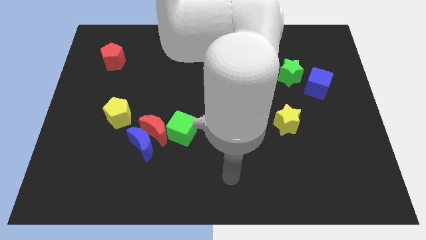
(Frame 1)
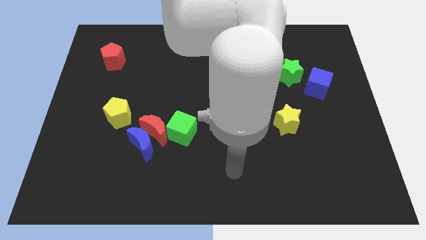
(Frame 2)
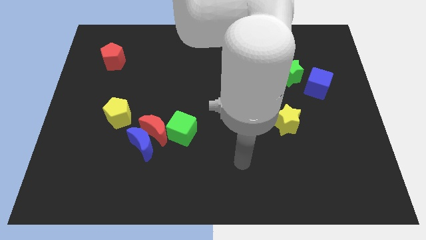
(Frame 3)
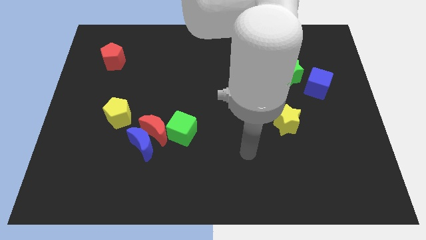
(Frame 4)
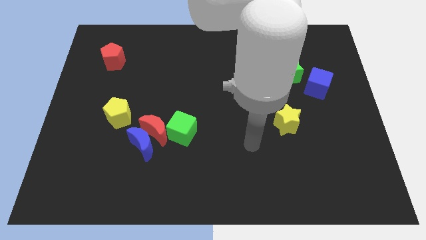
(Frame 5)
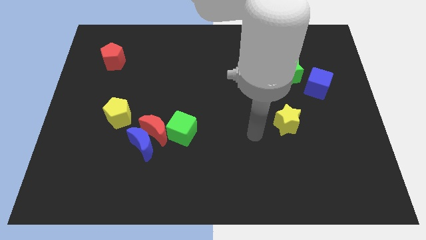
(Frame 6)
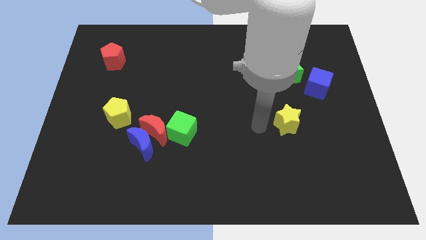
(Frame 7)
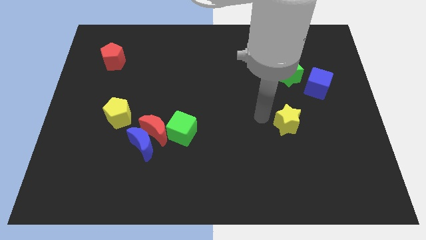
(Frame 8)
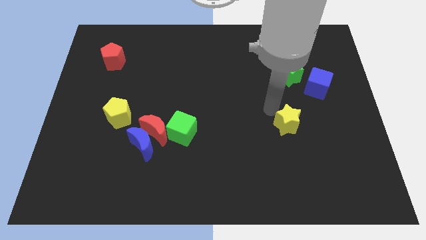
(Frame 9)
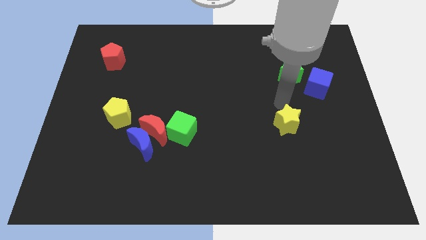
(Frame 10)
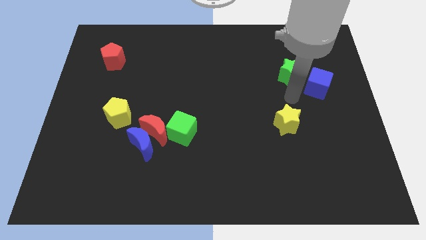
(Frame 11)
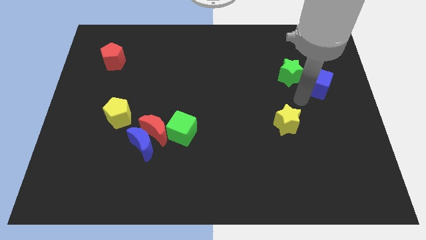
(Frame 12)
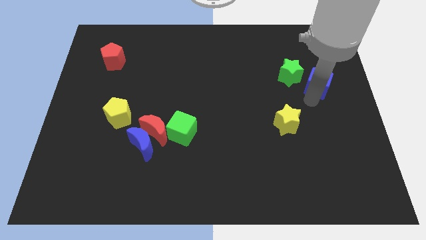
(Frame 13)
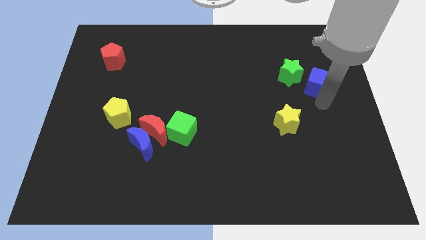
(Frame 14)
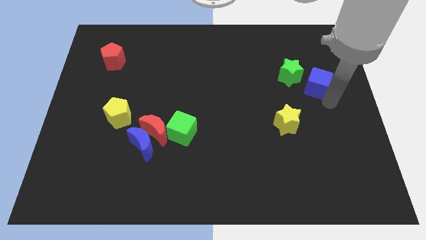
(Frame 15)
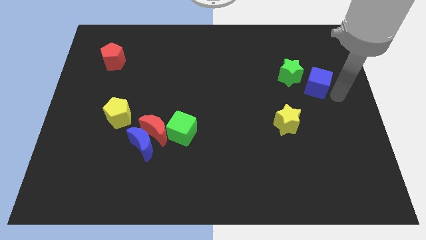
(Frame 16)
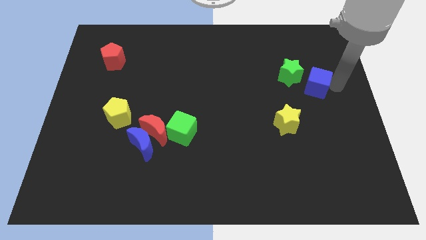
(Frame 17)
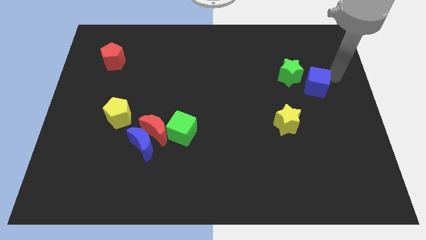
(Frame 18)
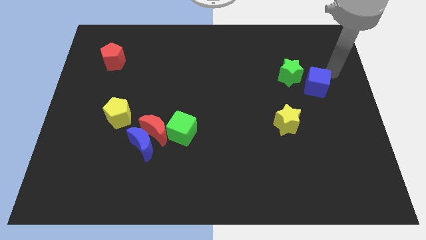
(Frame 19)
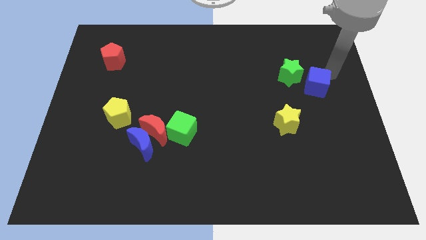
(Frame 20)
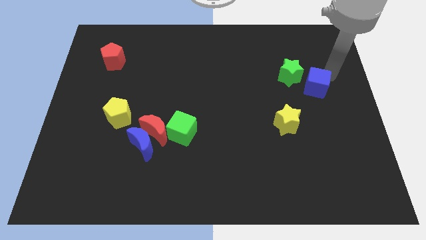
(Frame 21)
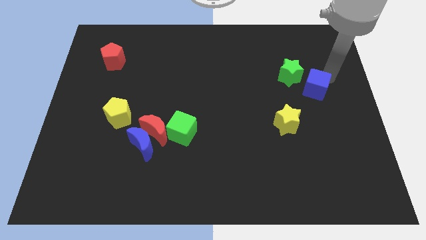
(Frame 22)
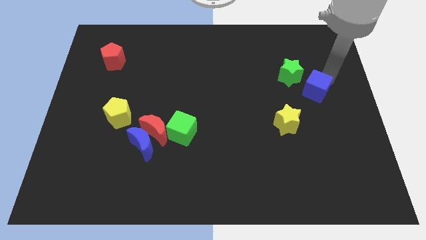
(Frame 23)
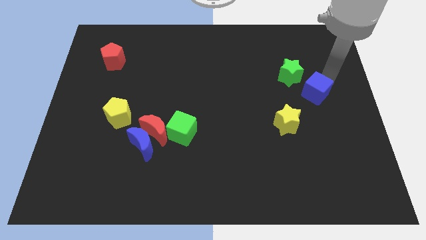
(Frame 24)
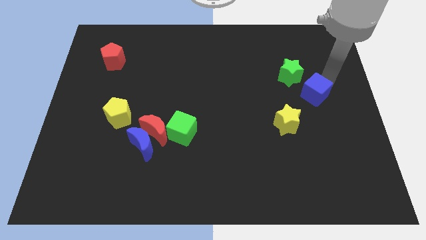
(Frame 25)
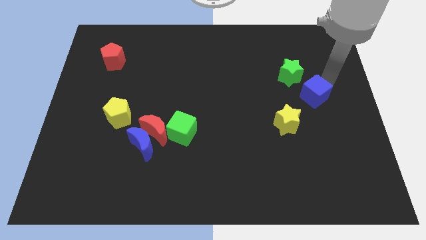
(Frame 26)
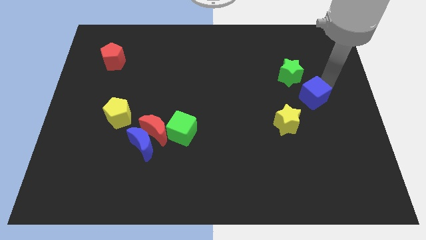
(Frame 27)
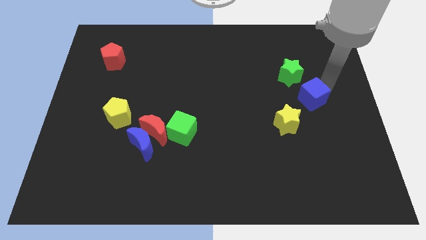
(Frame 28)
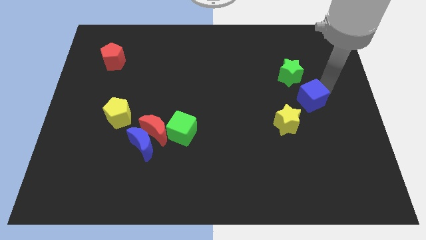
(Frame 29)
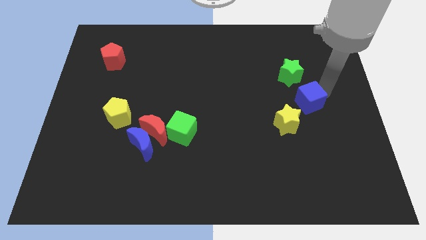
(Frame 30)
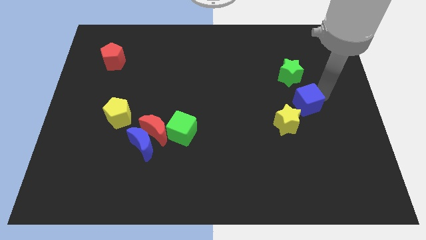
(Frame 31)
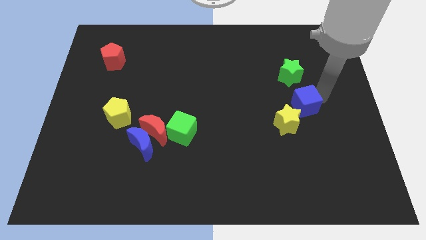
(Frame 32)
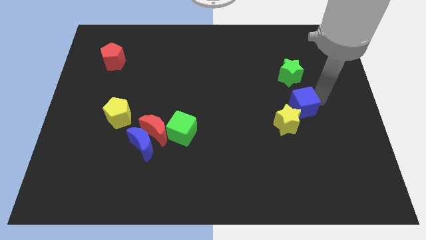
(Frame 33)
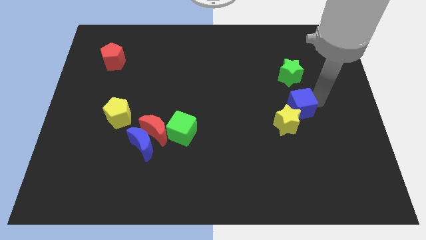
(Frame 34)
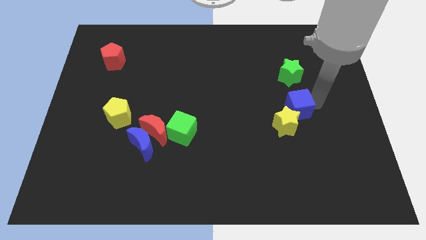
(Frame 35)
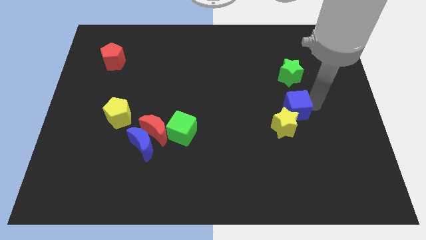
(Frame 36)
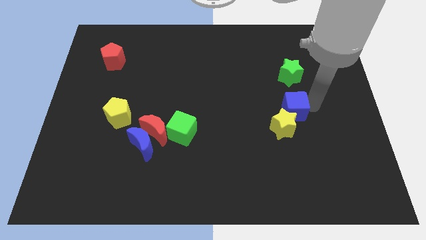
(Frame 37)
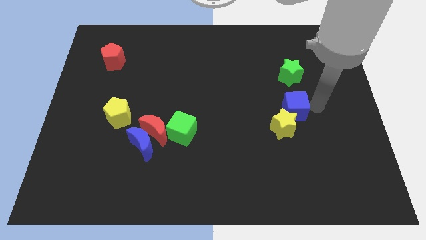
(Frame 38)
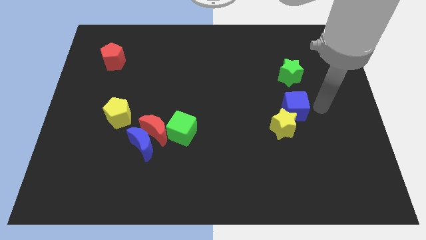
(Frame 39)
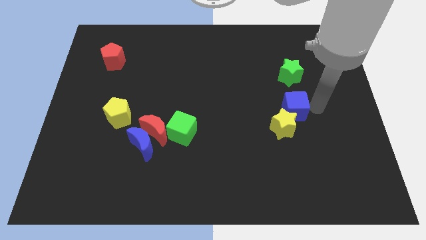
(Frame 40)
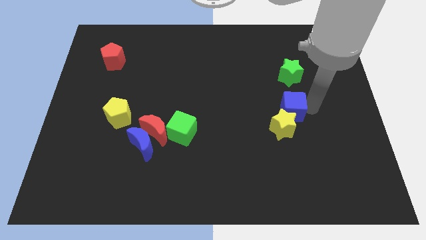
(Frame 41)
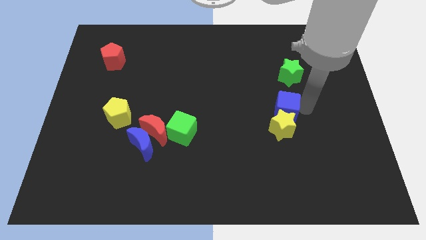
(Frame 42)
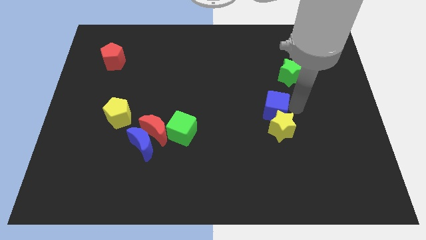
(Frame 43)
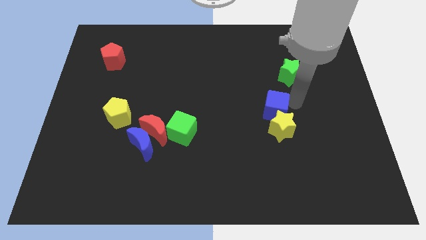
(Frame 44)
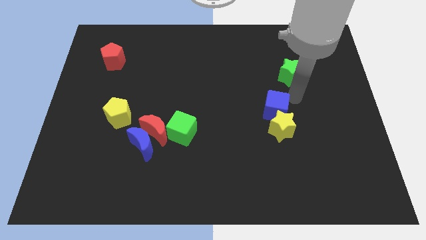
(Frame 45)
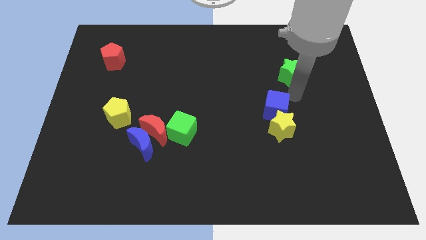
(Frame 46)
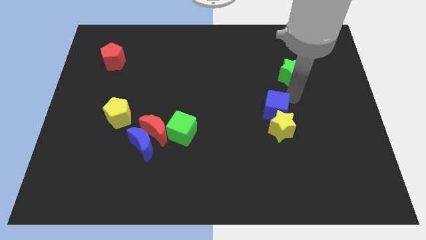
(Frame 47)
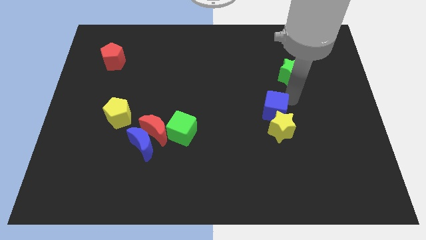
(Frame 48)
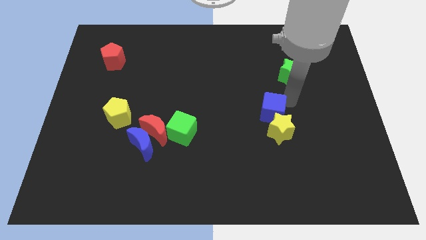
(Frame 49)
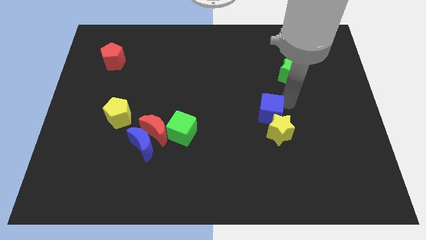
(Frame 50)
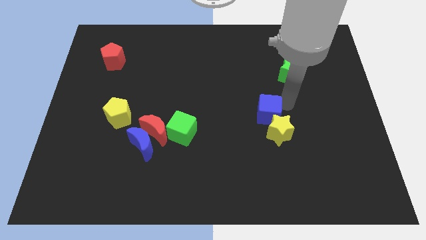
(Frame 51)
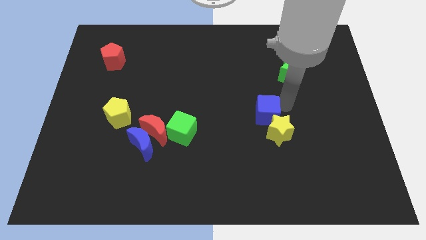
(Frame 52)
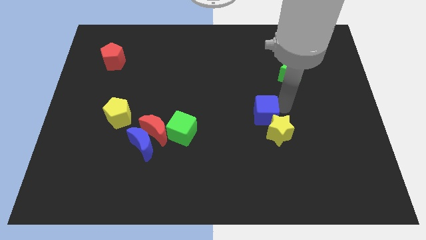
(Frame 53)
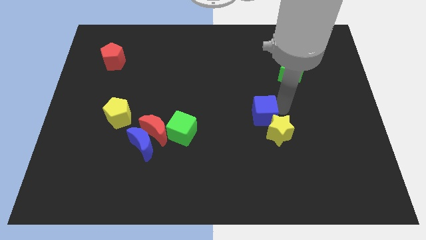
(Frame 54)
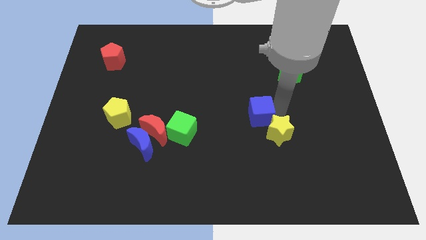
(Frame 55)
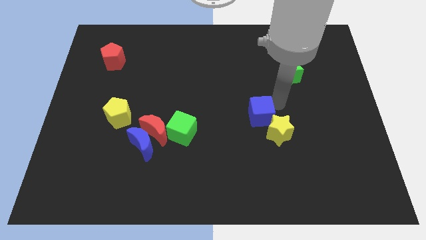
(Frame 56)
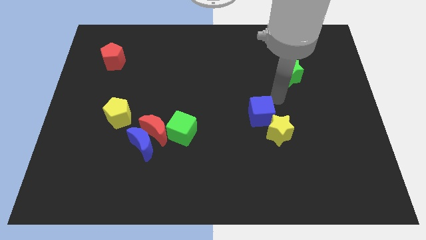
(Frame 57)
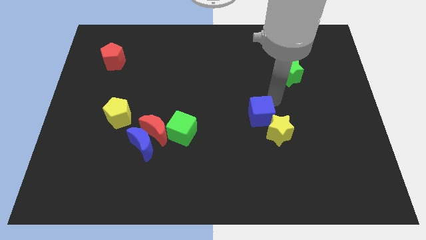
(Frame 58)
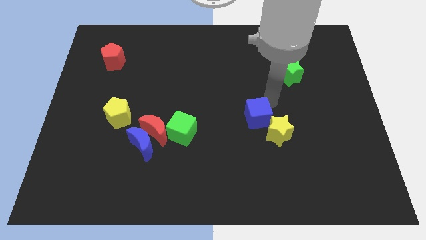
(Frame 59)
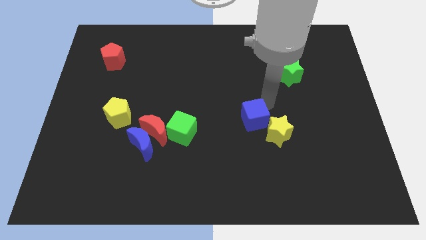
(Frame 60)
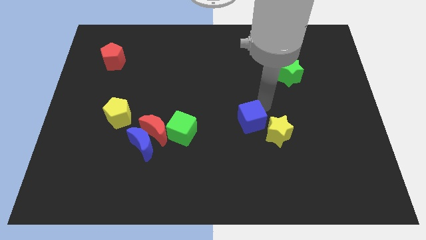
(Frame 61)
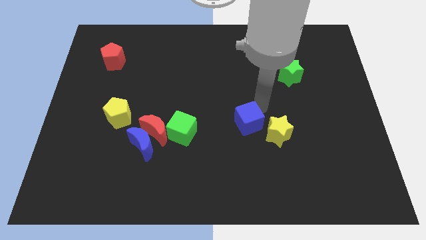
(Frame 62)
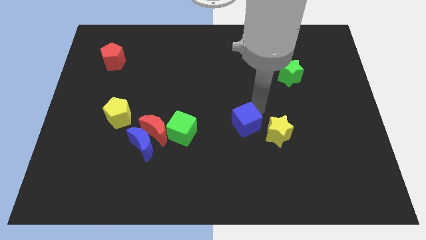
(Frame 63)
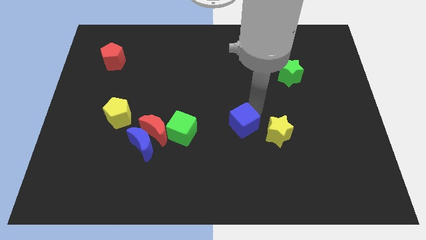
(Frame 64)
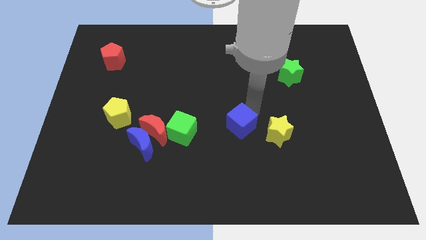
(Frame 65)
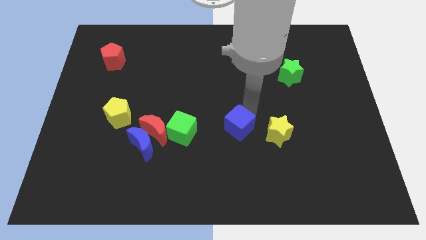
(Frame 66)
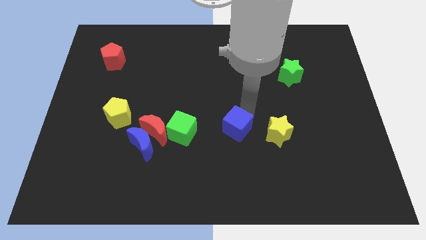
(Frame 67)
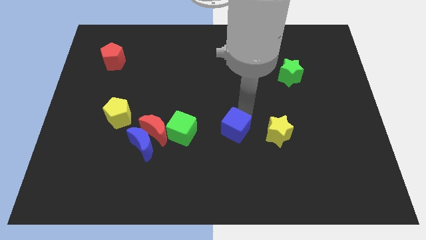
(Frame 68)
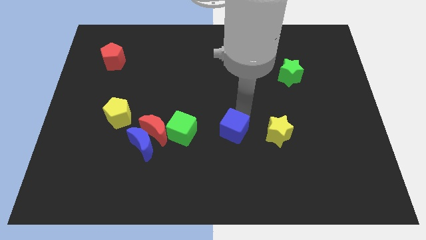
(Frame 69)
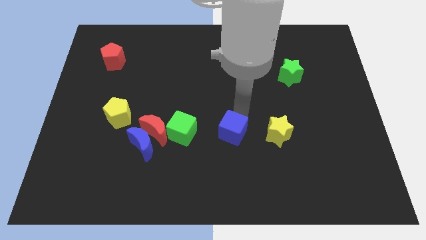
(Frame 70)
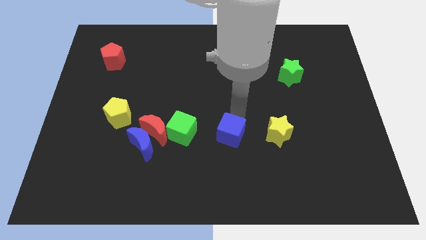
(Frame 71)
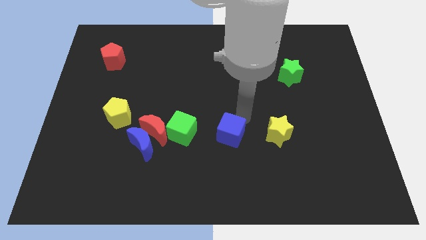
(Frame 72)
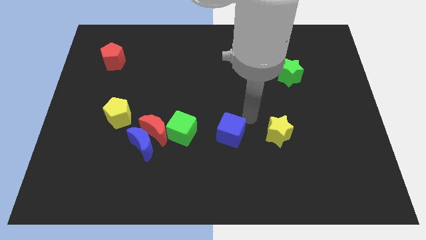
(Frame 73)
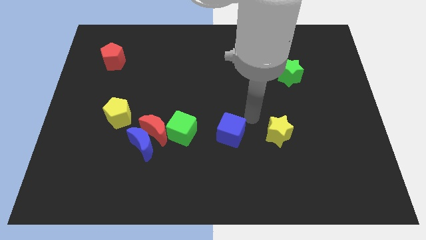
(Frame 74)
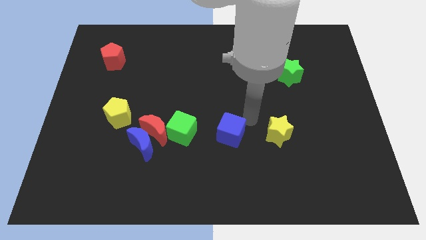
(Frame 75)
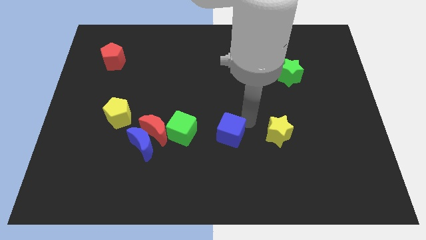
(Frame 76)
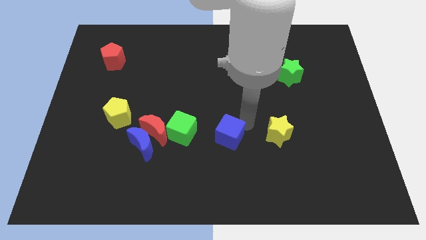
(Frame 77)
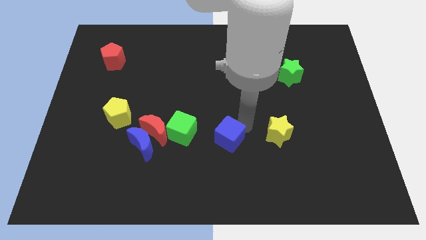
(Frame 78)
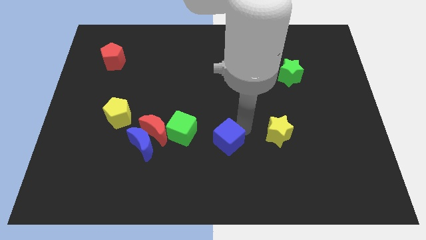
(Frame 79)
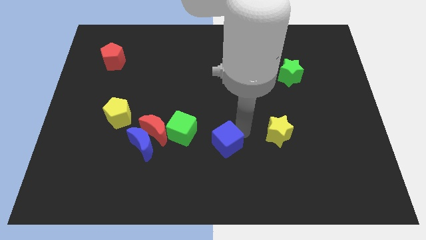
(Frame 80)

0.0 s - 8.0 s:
move the blue cube diagonally down and to the right of the green cube
